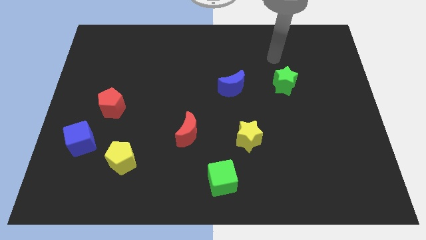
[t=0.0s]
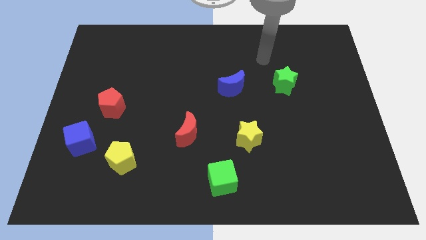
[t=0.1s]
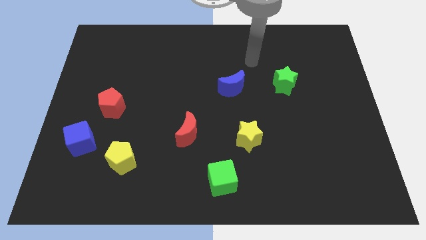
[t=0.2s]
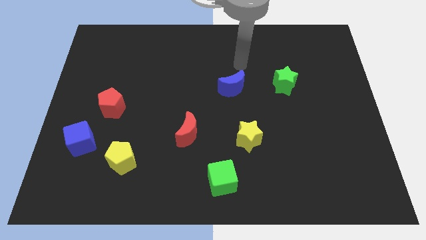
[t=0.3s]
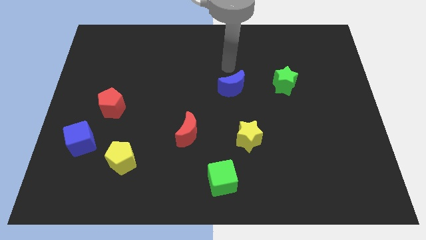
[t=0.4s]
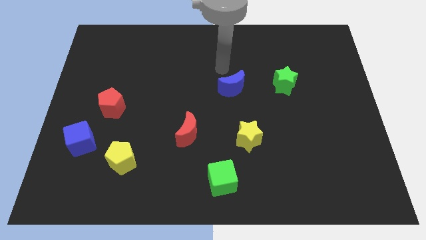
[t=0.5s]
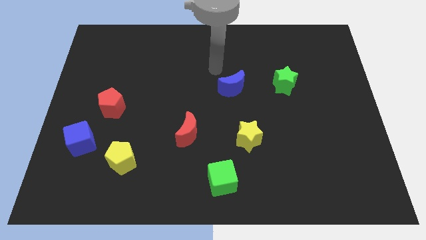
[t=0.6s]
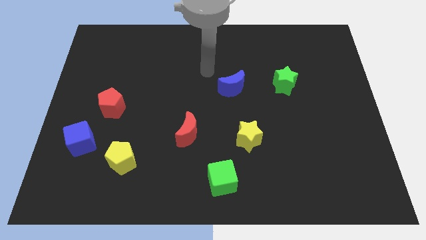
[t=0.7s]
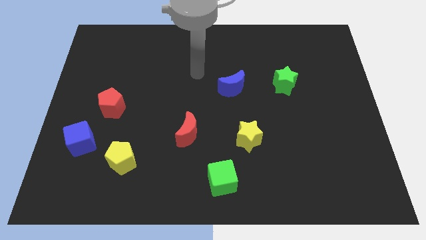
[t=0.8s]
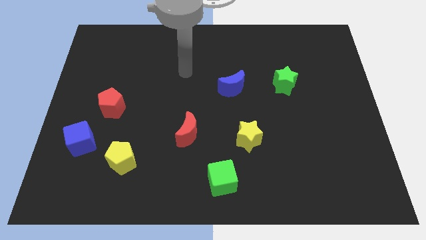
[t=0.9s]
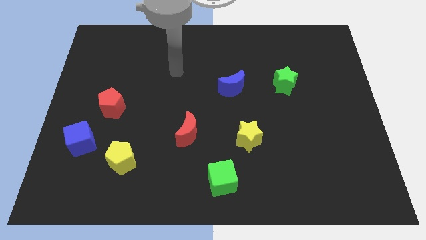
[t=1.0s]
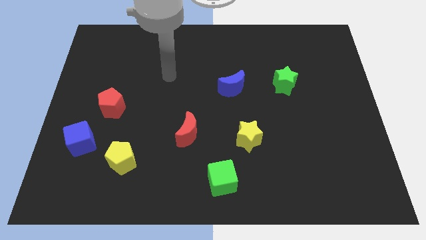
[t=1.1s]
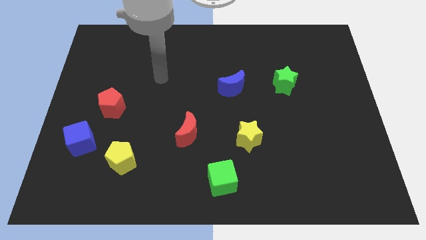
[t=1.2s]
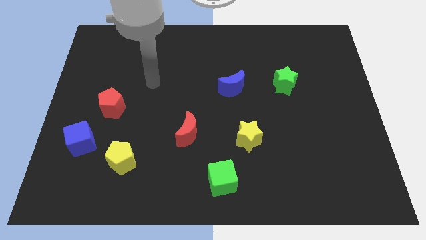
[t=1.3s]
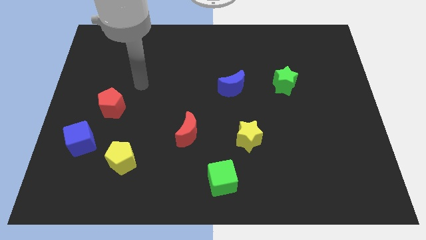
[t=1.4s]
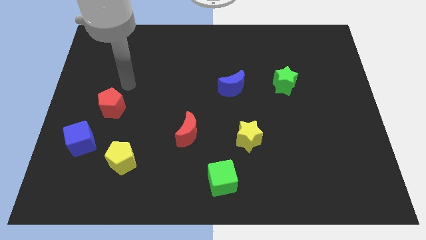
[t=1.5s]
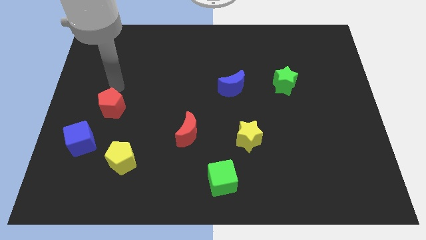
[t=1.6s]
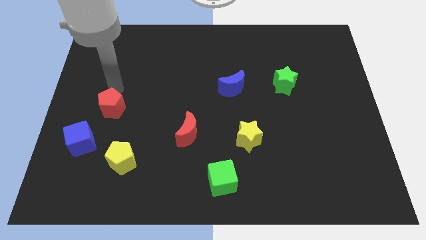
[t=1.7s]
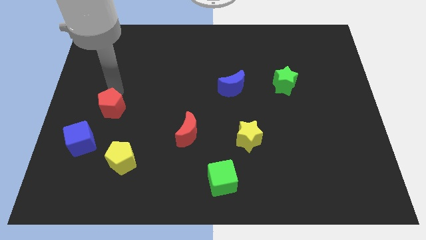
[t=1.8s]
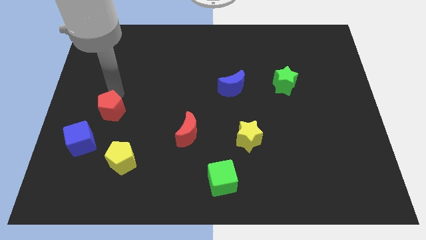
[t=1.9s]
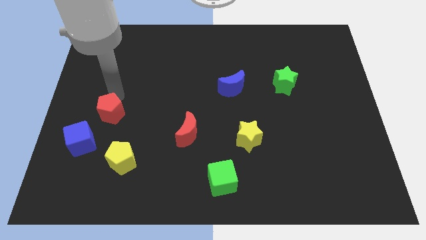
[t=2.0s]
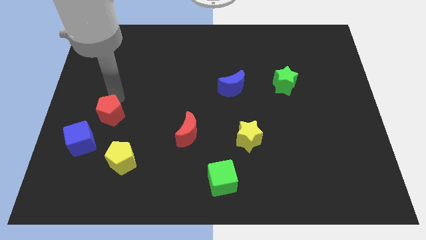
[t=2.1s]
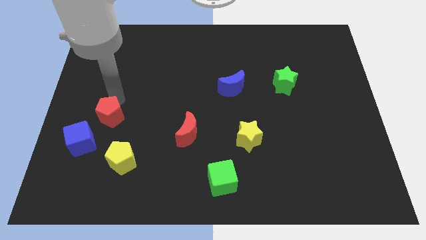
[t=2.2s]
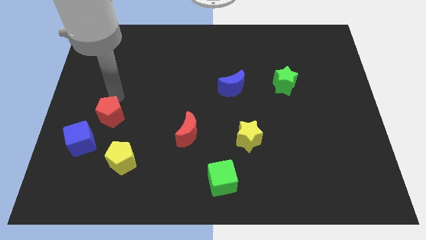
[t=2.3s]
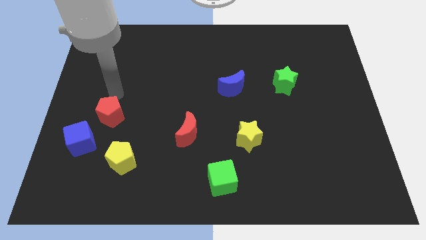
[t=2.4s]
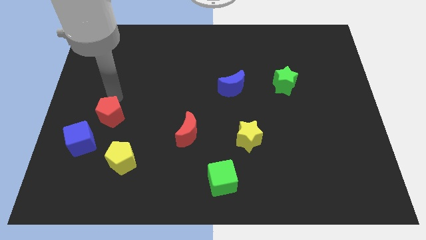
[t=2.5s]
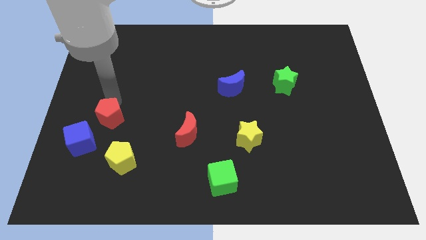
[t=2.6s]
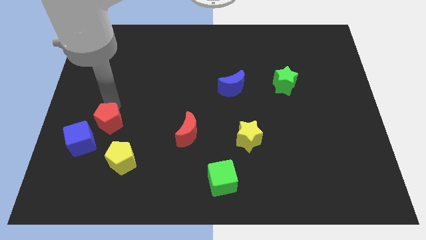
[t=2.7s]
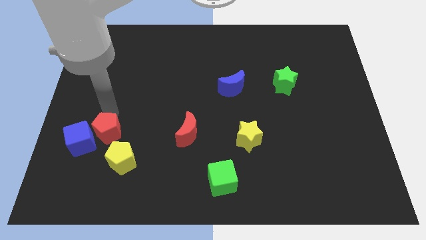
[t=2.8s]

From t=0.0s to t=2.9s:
move the red pentagon slightly downwards

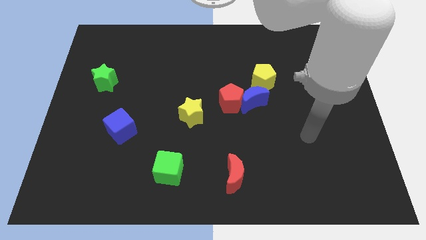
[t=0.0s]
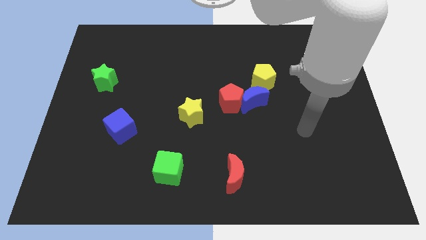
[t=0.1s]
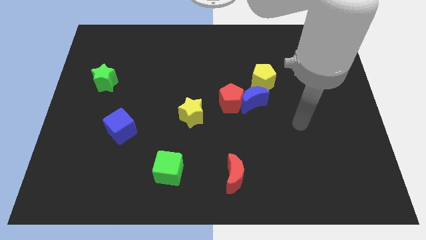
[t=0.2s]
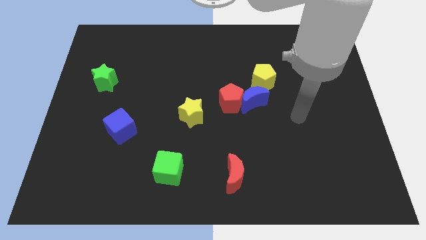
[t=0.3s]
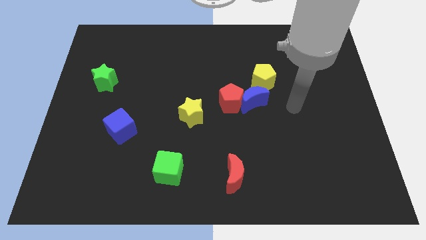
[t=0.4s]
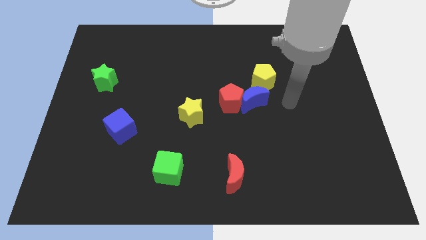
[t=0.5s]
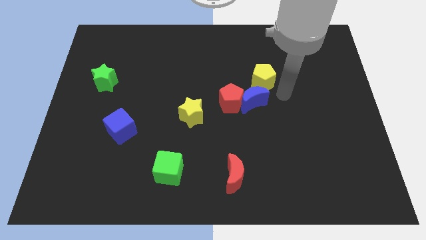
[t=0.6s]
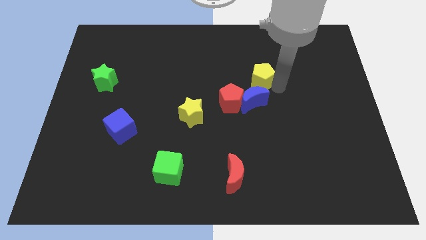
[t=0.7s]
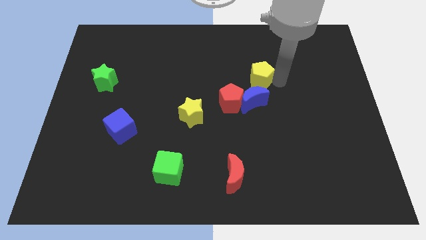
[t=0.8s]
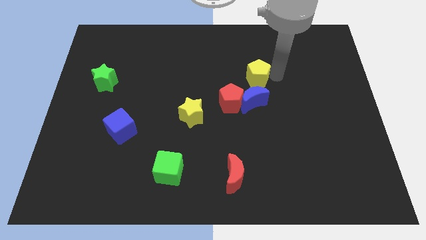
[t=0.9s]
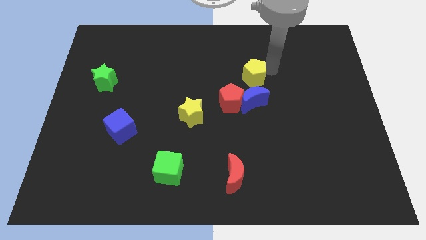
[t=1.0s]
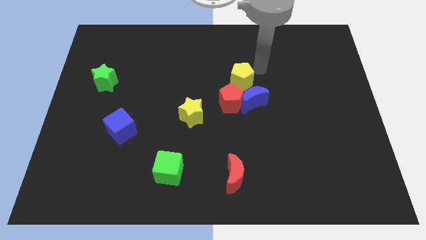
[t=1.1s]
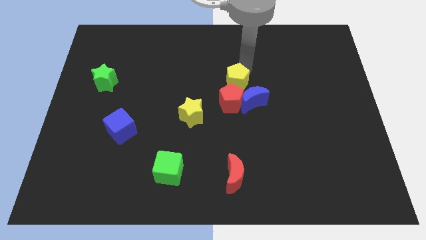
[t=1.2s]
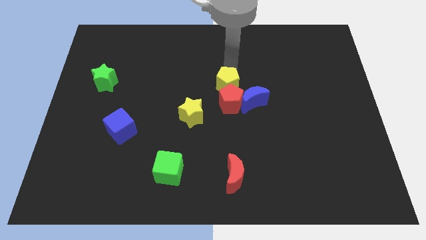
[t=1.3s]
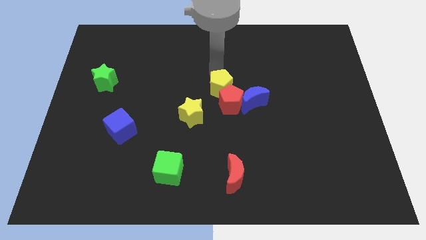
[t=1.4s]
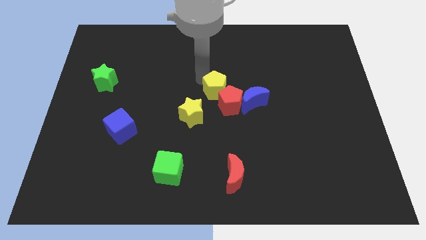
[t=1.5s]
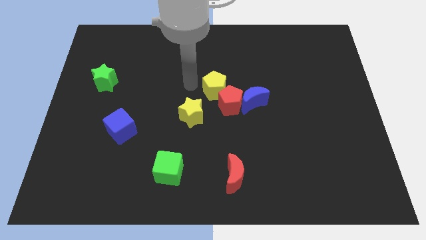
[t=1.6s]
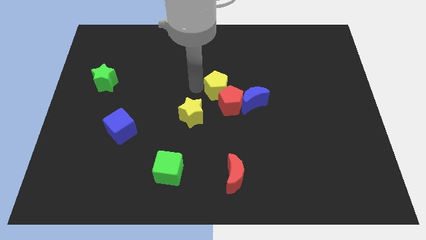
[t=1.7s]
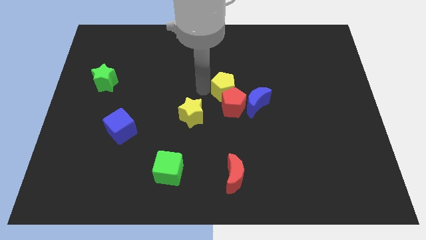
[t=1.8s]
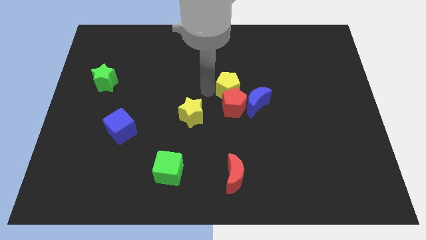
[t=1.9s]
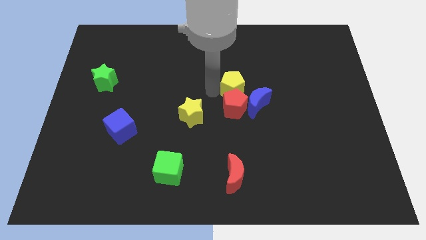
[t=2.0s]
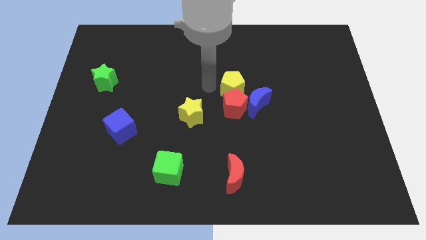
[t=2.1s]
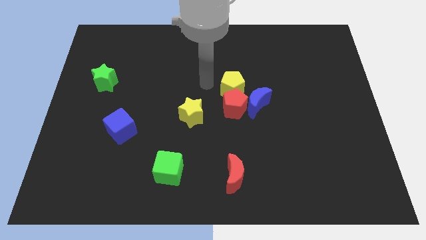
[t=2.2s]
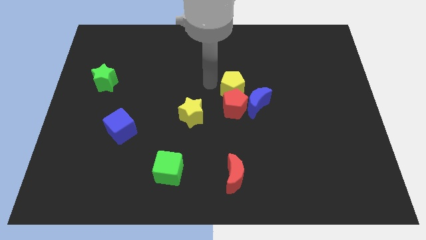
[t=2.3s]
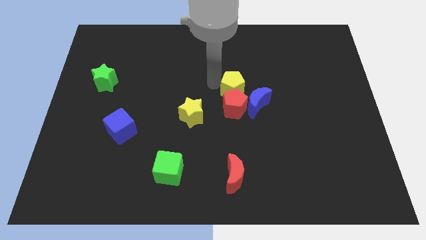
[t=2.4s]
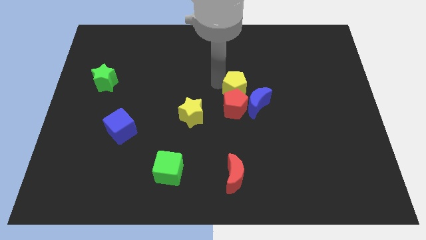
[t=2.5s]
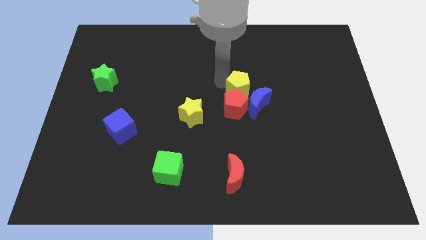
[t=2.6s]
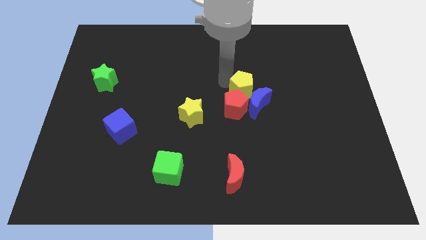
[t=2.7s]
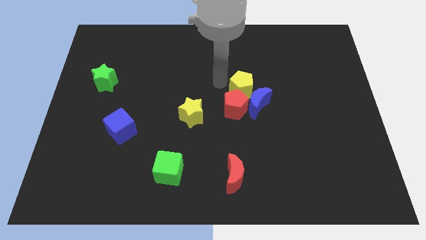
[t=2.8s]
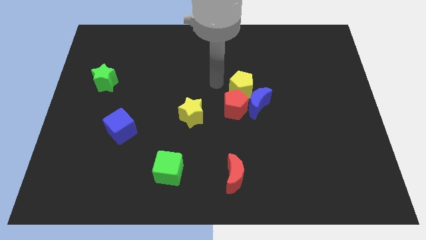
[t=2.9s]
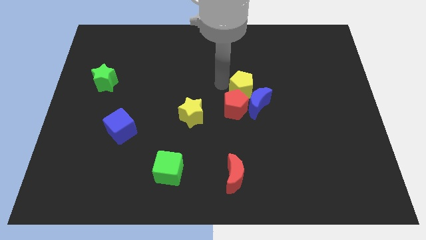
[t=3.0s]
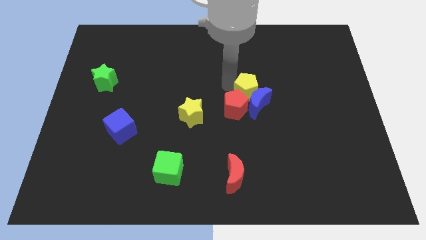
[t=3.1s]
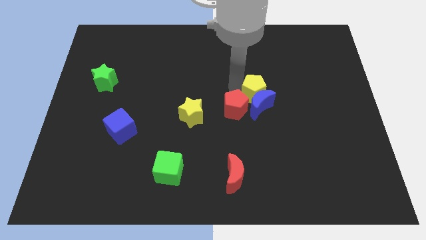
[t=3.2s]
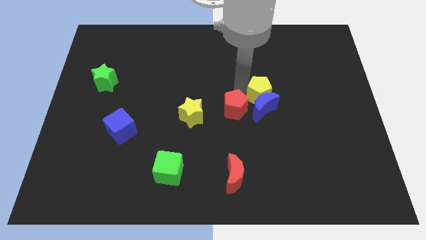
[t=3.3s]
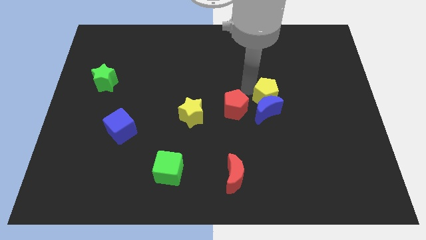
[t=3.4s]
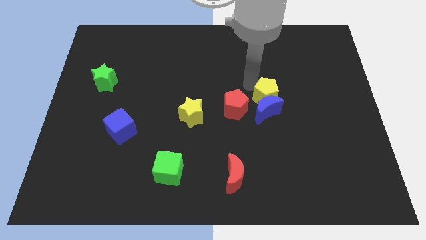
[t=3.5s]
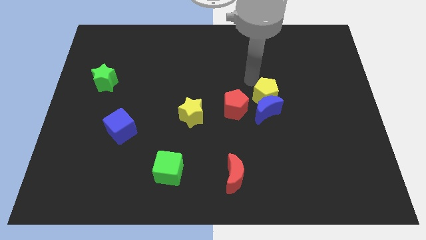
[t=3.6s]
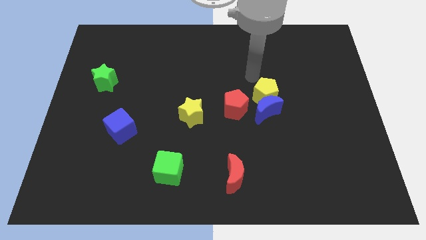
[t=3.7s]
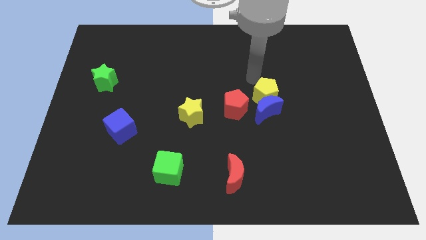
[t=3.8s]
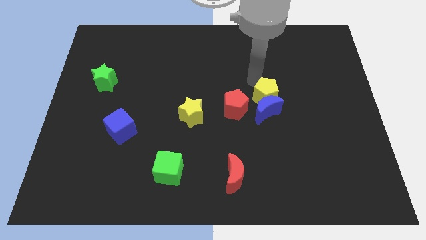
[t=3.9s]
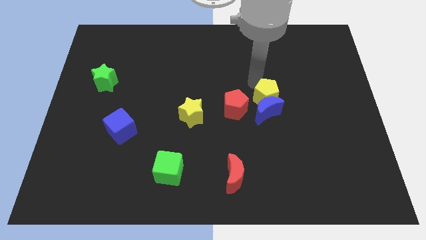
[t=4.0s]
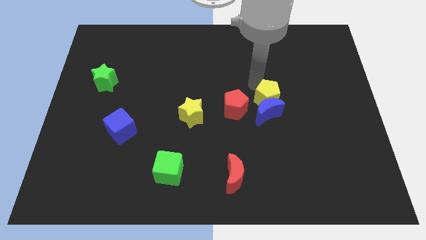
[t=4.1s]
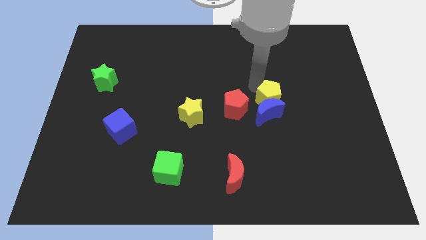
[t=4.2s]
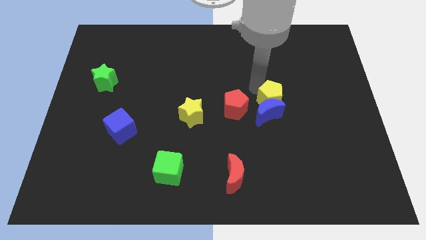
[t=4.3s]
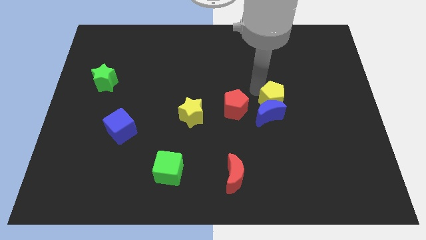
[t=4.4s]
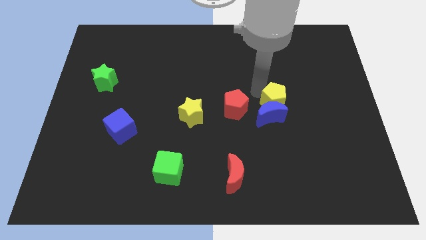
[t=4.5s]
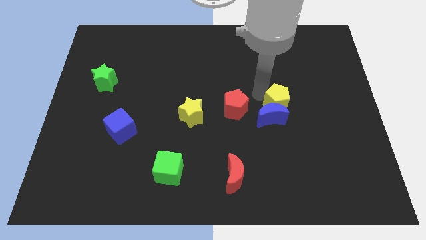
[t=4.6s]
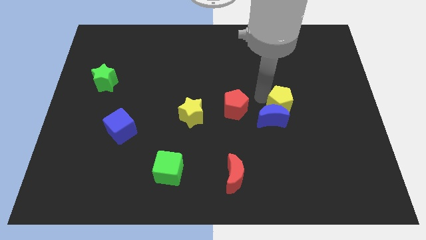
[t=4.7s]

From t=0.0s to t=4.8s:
push the yellow pentagon slightly down

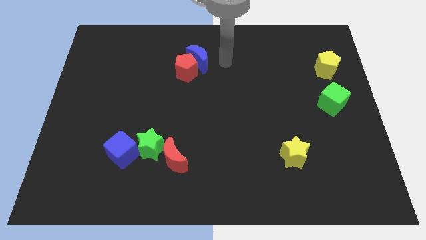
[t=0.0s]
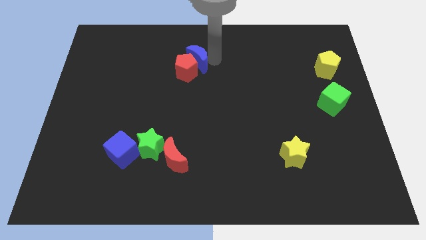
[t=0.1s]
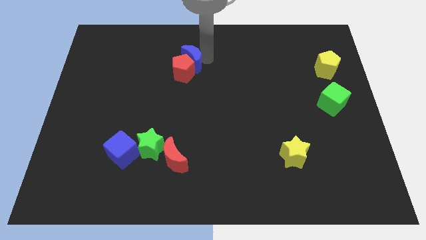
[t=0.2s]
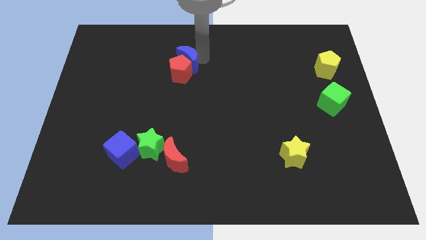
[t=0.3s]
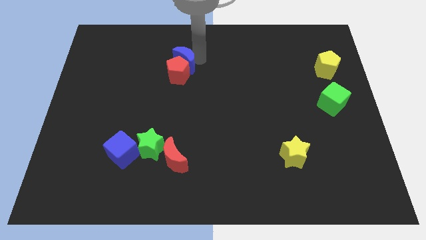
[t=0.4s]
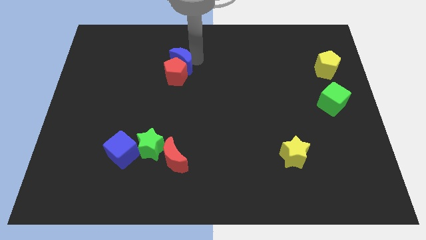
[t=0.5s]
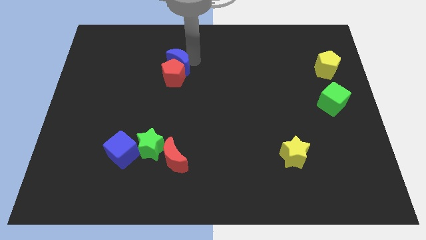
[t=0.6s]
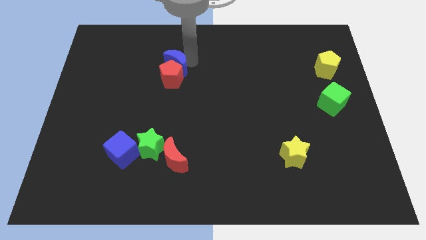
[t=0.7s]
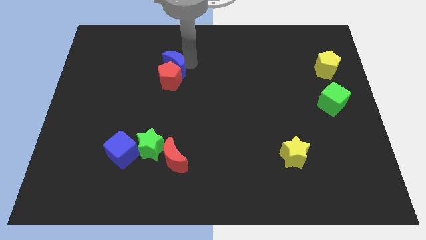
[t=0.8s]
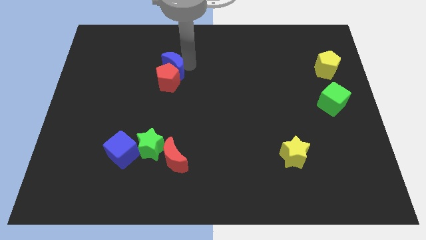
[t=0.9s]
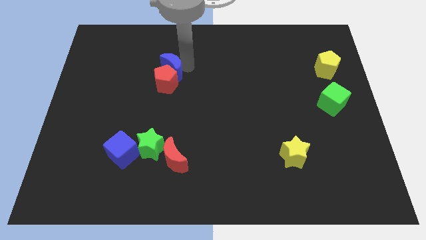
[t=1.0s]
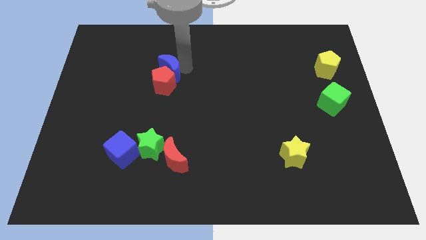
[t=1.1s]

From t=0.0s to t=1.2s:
slightly slide the red pentagon downwards and to the left
